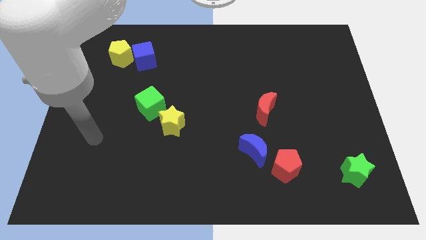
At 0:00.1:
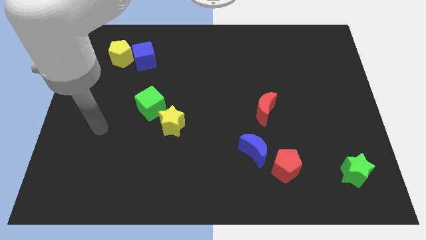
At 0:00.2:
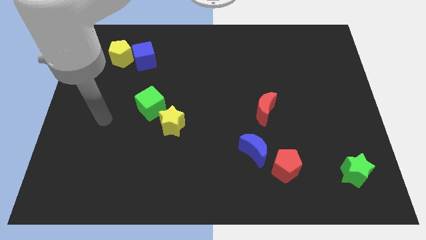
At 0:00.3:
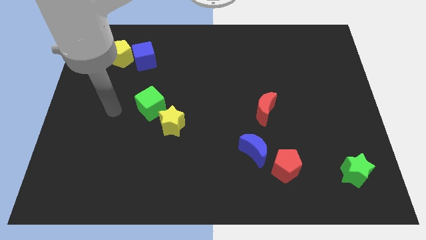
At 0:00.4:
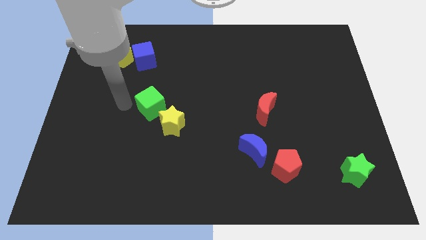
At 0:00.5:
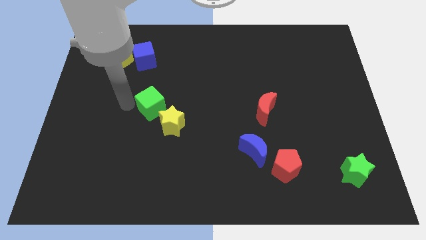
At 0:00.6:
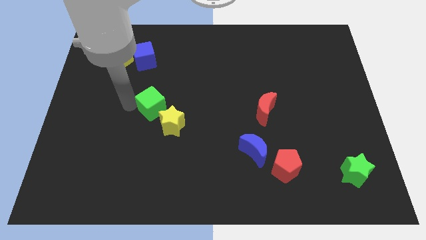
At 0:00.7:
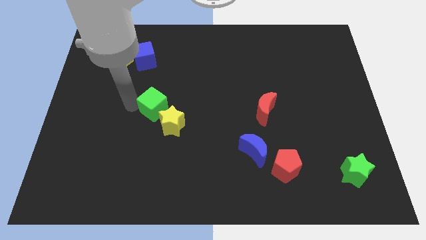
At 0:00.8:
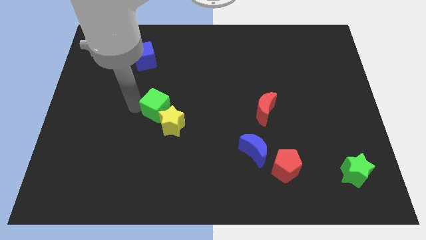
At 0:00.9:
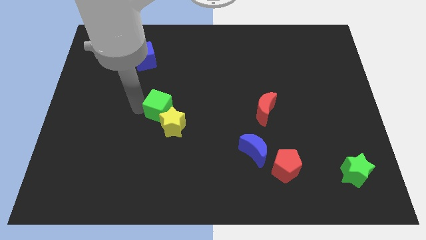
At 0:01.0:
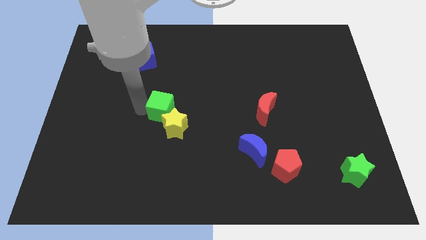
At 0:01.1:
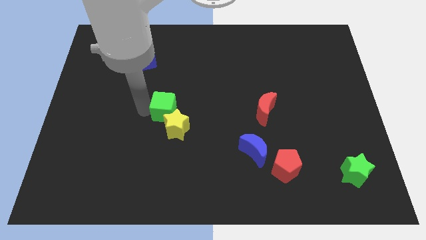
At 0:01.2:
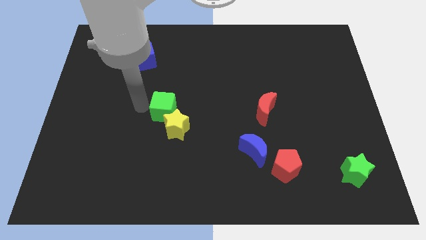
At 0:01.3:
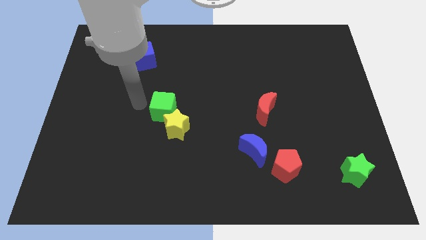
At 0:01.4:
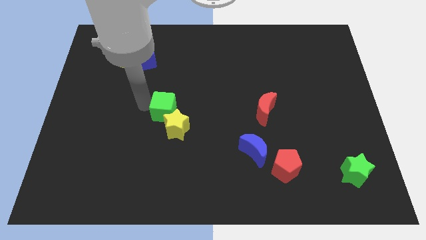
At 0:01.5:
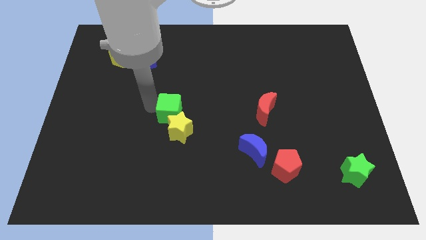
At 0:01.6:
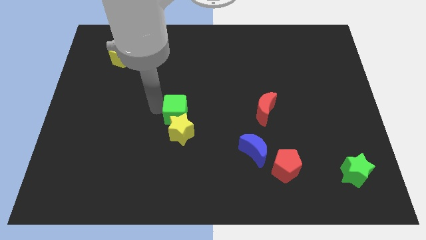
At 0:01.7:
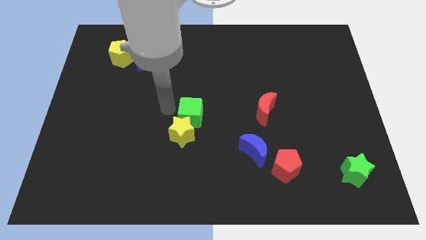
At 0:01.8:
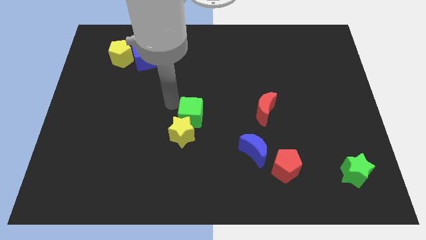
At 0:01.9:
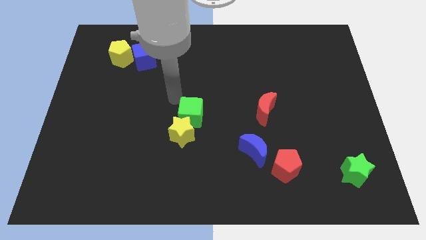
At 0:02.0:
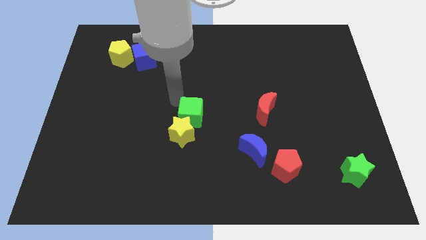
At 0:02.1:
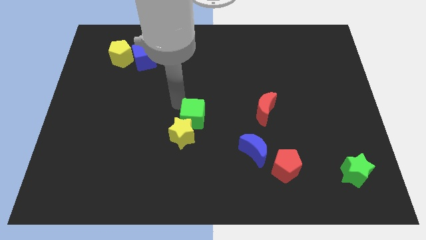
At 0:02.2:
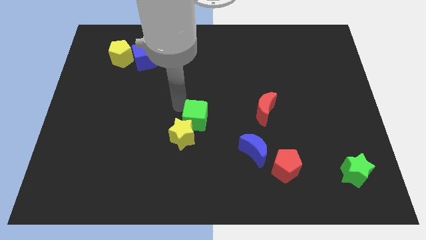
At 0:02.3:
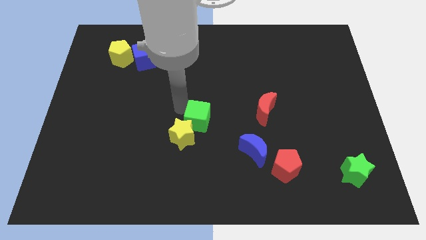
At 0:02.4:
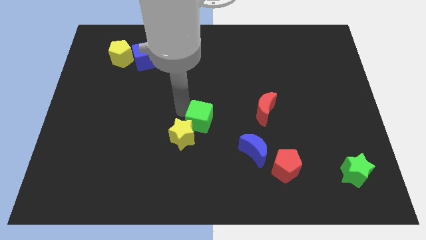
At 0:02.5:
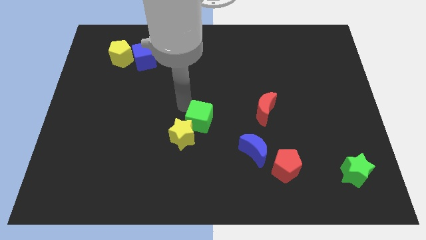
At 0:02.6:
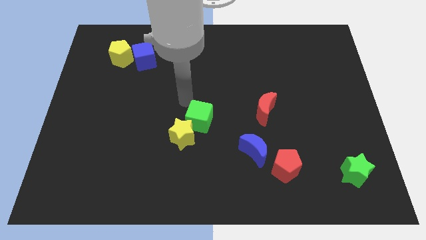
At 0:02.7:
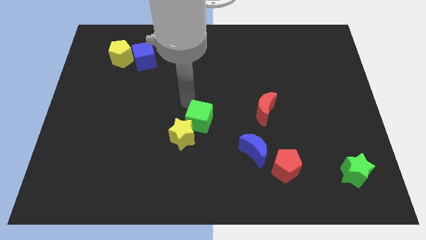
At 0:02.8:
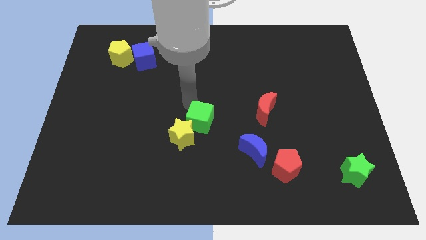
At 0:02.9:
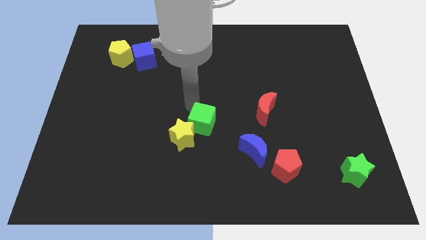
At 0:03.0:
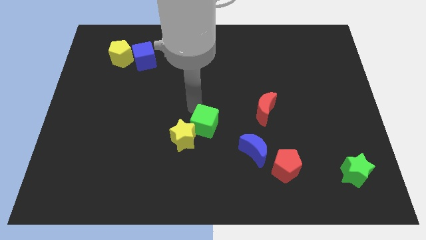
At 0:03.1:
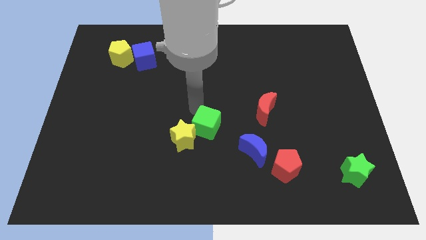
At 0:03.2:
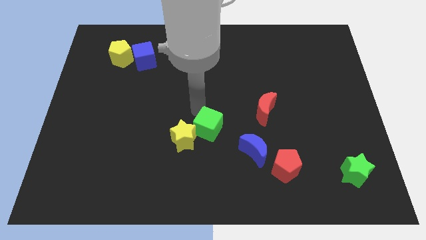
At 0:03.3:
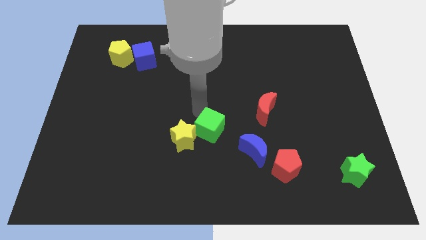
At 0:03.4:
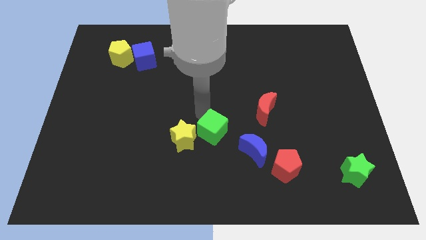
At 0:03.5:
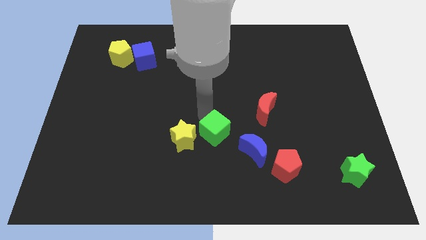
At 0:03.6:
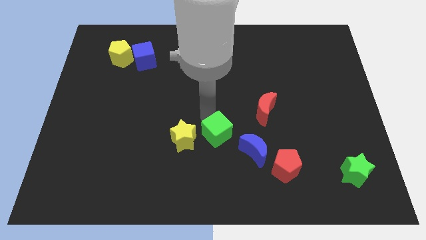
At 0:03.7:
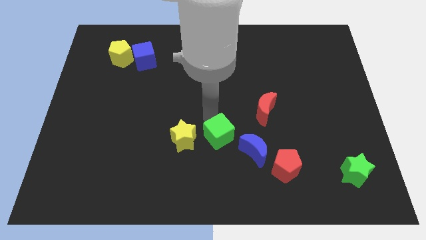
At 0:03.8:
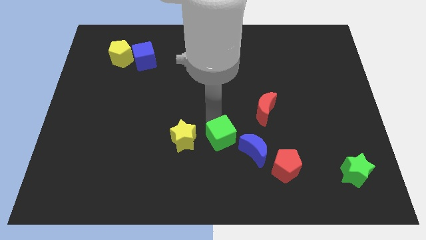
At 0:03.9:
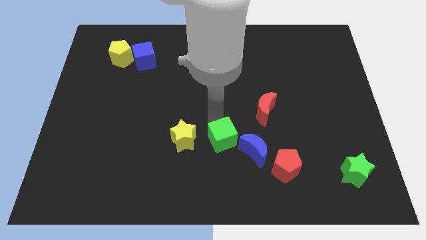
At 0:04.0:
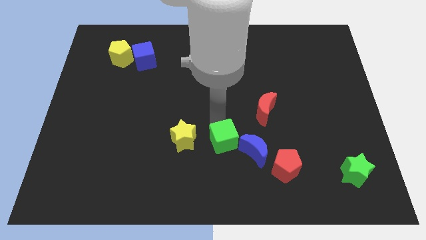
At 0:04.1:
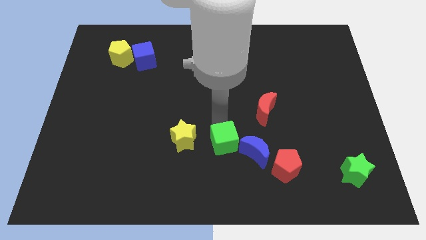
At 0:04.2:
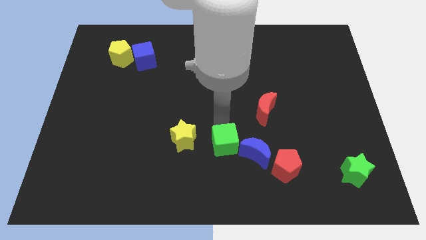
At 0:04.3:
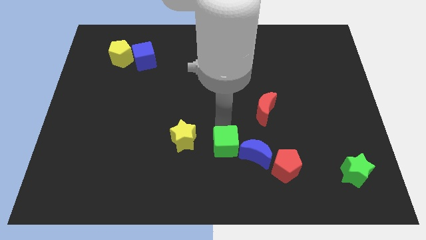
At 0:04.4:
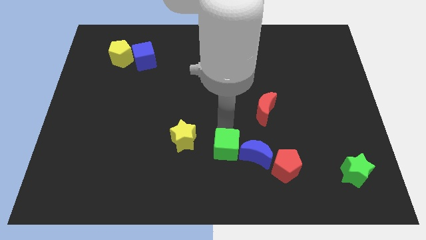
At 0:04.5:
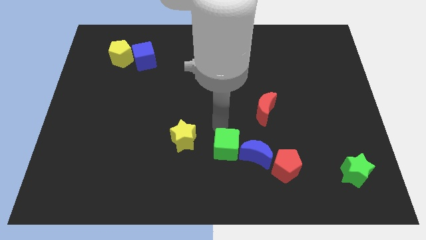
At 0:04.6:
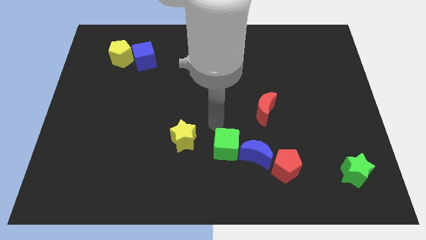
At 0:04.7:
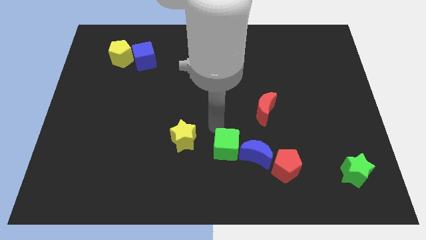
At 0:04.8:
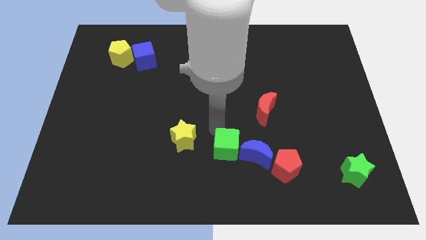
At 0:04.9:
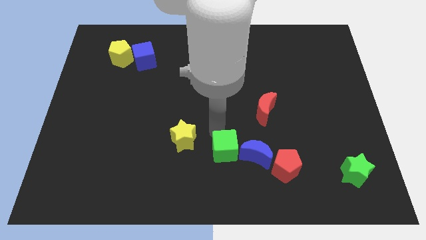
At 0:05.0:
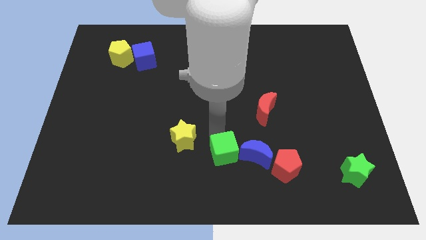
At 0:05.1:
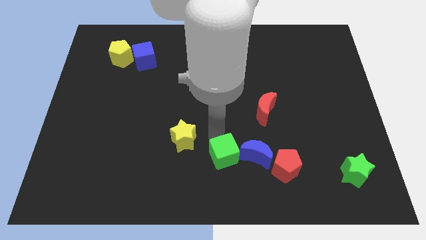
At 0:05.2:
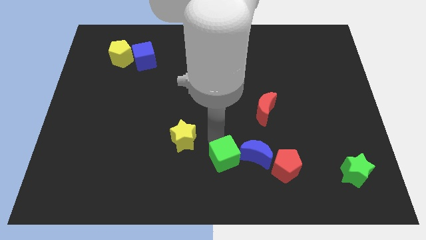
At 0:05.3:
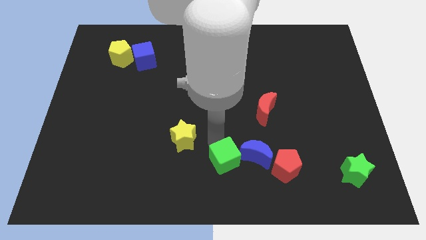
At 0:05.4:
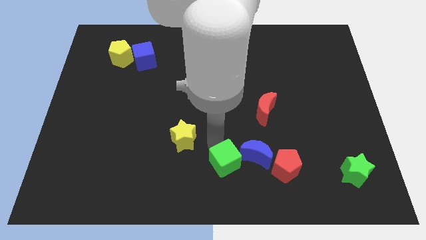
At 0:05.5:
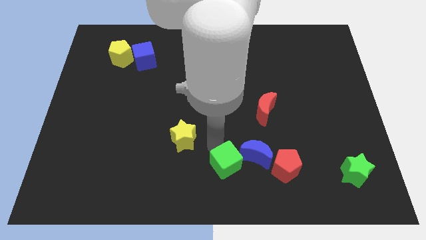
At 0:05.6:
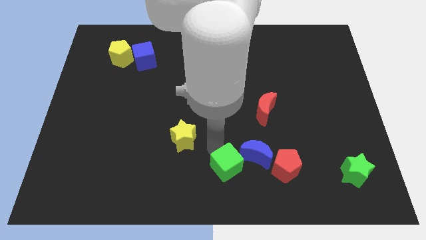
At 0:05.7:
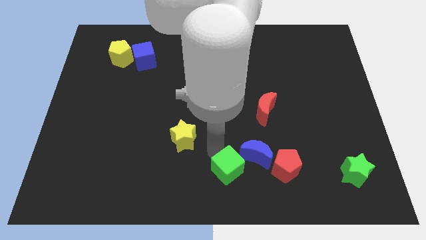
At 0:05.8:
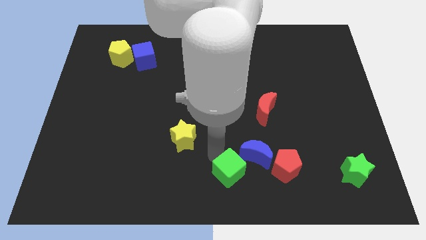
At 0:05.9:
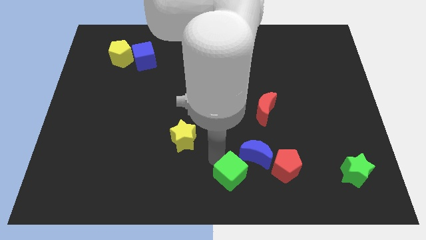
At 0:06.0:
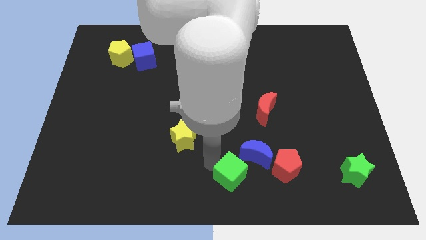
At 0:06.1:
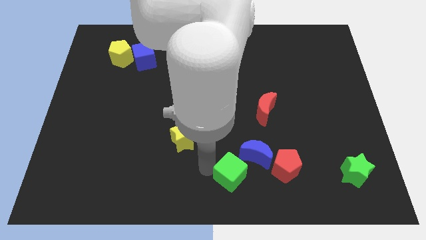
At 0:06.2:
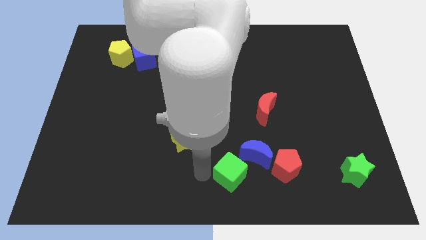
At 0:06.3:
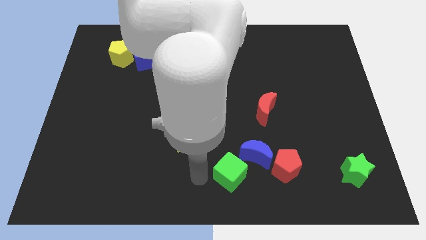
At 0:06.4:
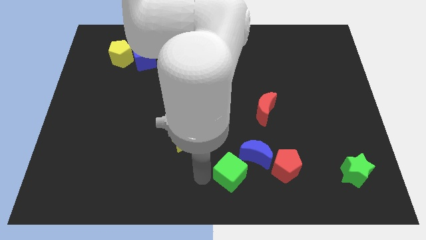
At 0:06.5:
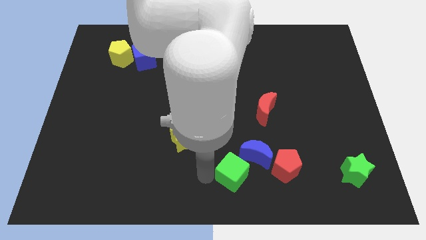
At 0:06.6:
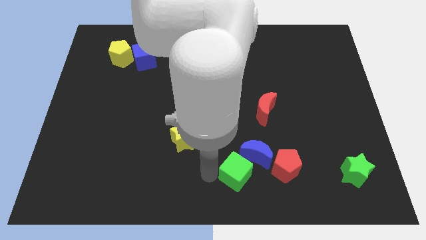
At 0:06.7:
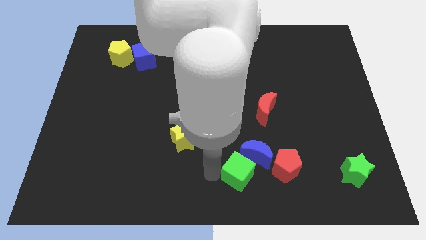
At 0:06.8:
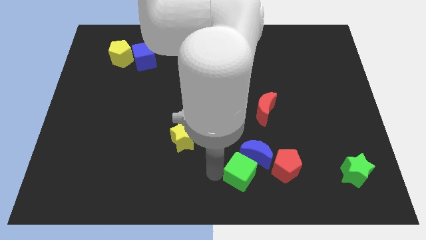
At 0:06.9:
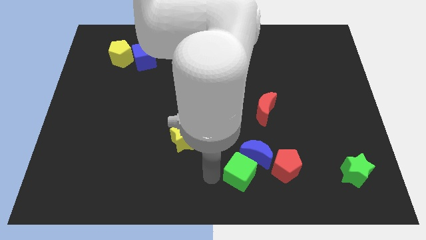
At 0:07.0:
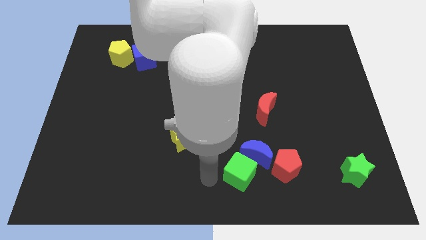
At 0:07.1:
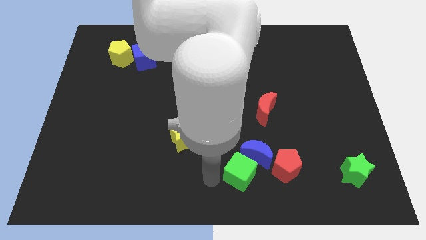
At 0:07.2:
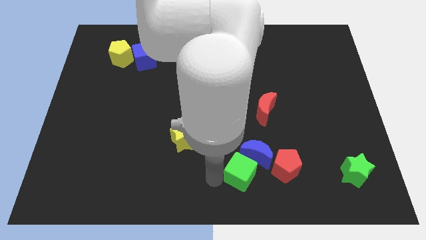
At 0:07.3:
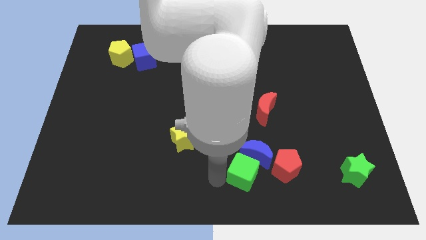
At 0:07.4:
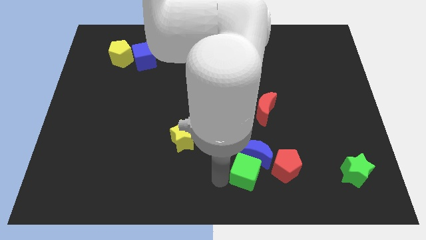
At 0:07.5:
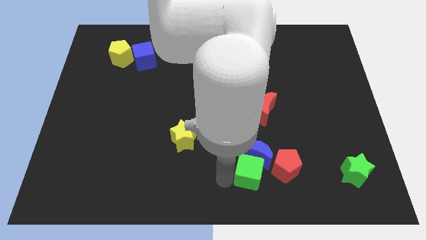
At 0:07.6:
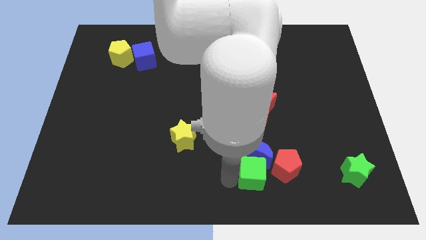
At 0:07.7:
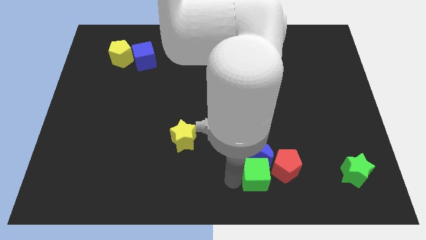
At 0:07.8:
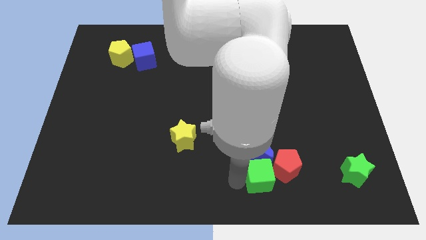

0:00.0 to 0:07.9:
slide the green cube close to the red pentagon

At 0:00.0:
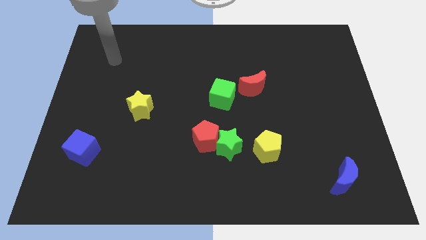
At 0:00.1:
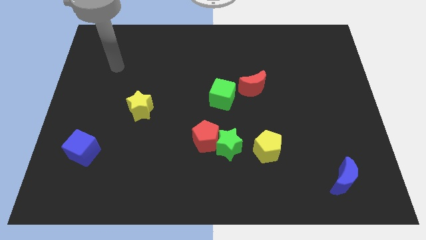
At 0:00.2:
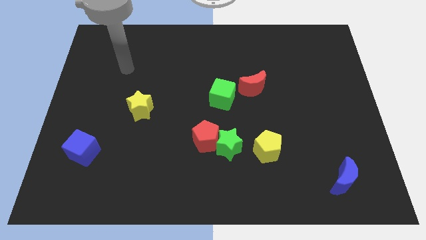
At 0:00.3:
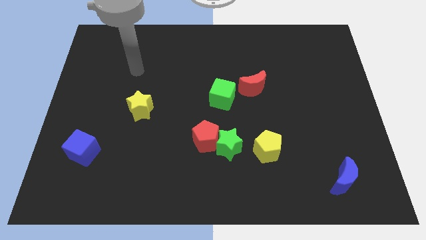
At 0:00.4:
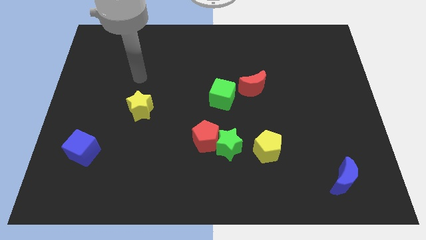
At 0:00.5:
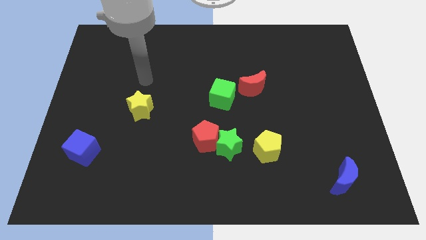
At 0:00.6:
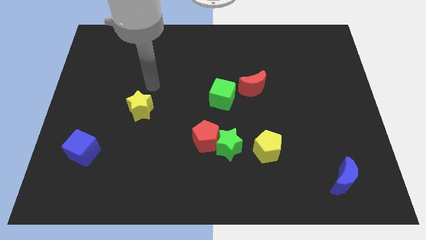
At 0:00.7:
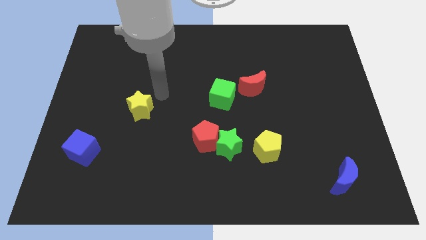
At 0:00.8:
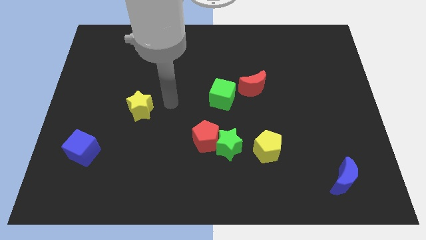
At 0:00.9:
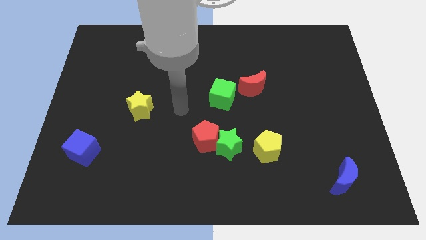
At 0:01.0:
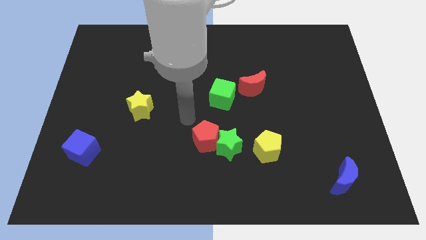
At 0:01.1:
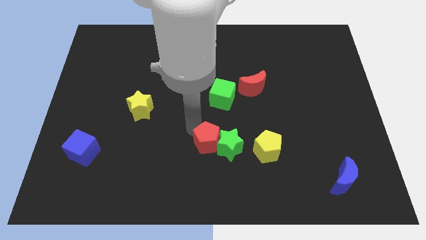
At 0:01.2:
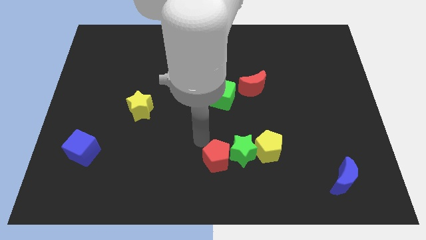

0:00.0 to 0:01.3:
slide the green star towards the yellow pentagon
